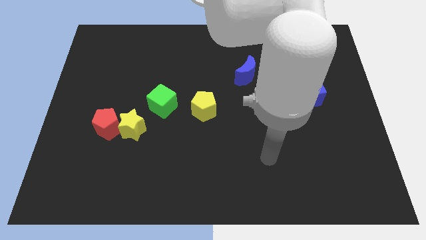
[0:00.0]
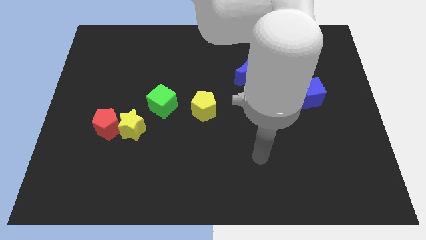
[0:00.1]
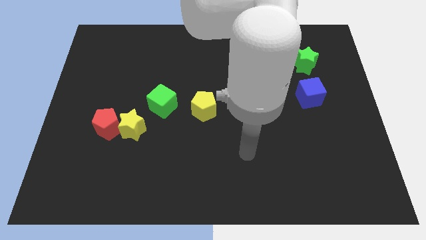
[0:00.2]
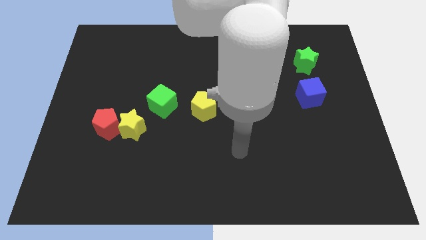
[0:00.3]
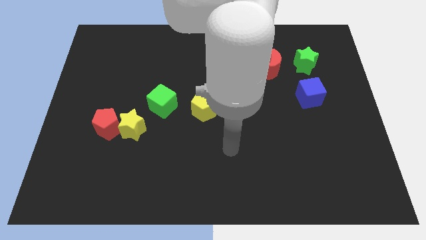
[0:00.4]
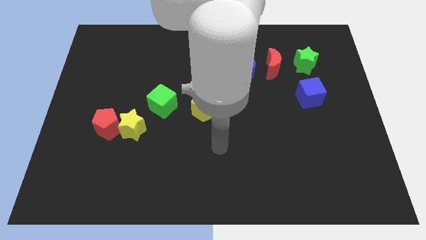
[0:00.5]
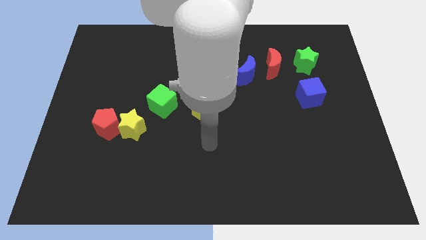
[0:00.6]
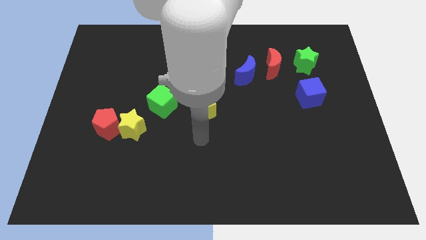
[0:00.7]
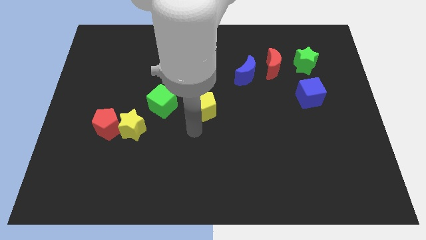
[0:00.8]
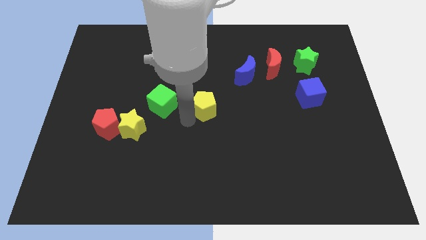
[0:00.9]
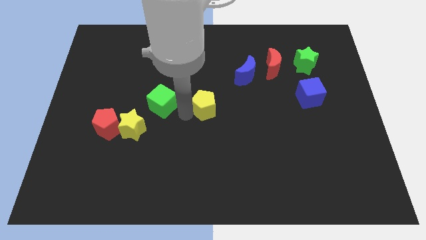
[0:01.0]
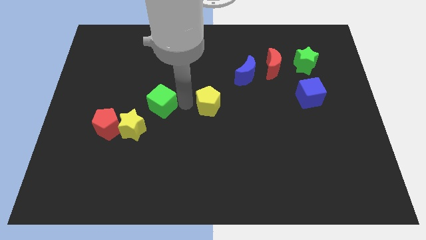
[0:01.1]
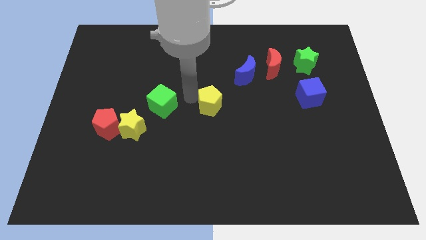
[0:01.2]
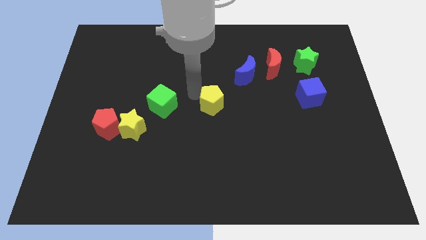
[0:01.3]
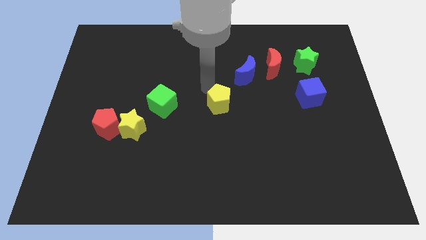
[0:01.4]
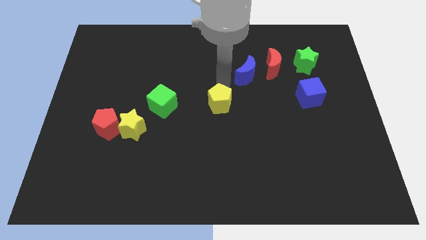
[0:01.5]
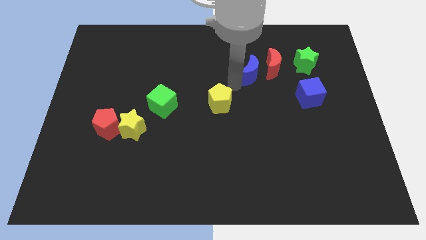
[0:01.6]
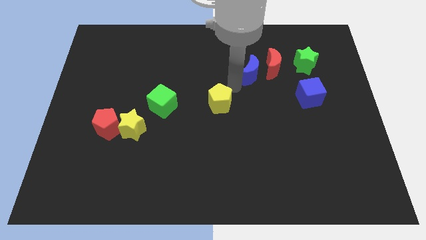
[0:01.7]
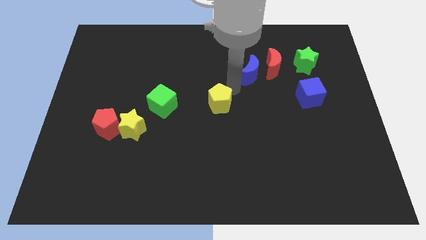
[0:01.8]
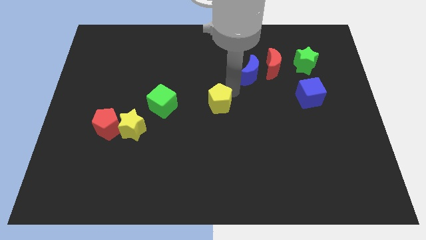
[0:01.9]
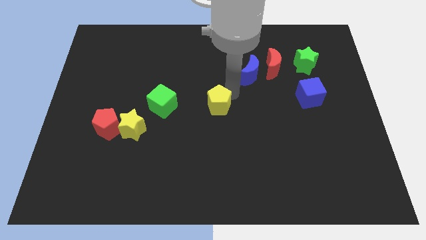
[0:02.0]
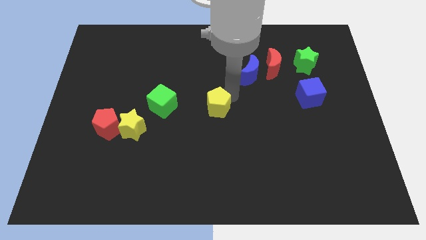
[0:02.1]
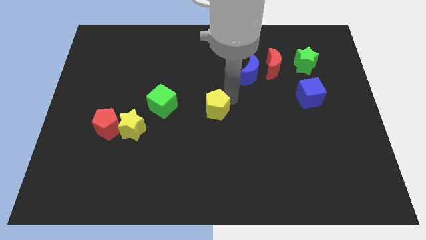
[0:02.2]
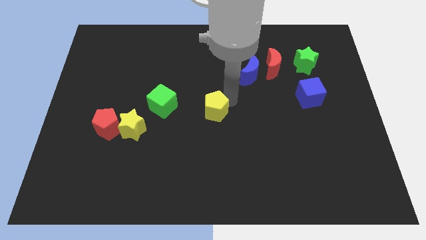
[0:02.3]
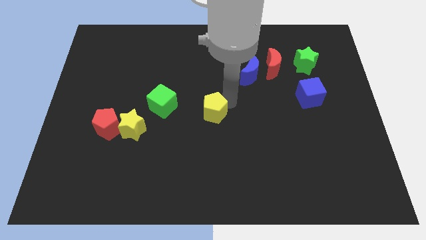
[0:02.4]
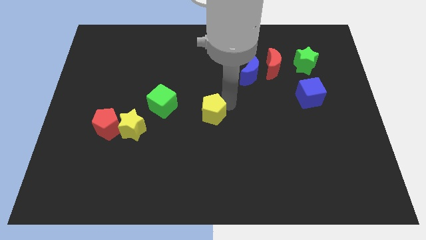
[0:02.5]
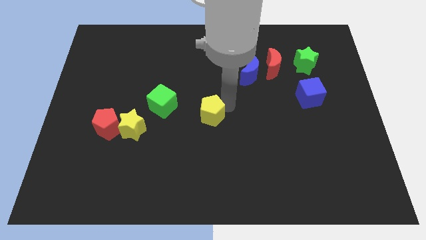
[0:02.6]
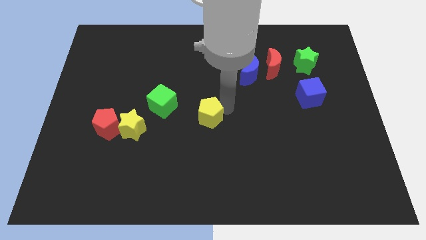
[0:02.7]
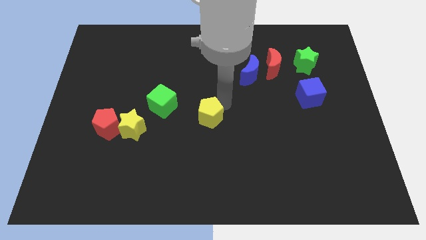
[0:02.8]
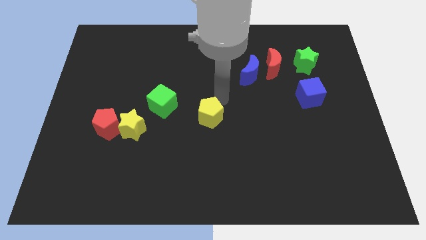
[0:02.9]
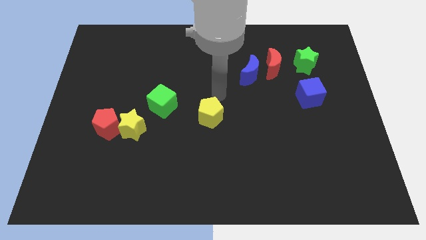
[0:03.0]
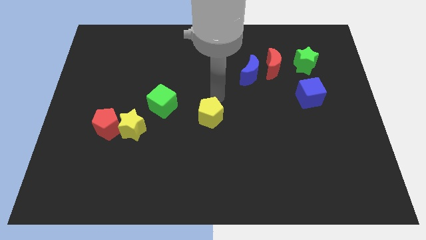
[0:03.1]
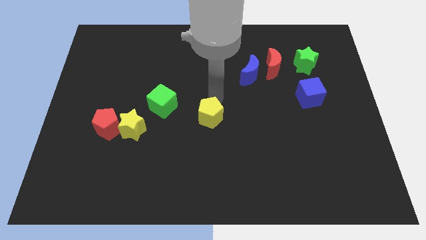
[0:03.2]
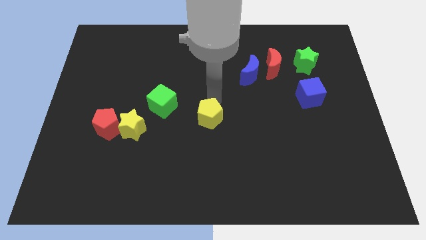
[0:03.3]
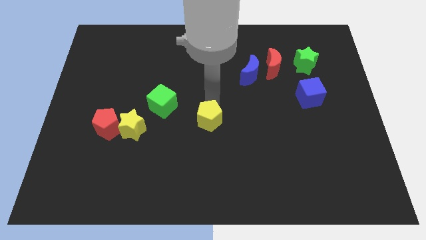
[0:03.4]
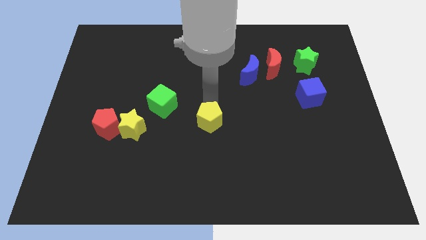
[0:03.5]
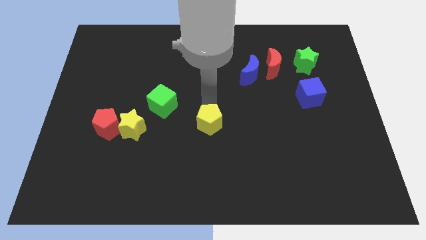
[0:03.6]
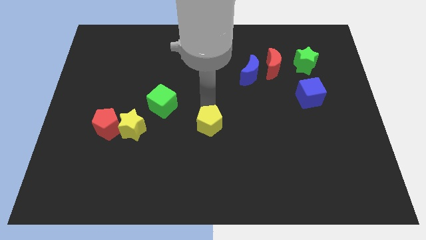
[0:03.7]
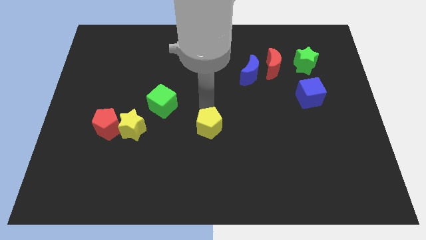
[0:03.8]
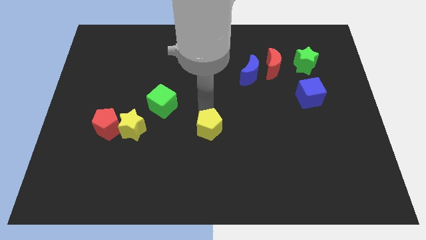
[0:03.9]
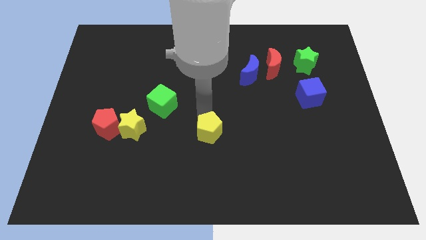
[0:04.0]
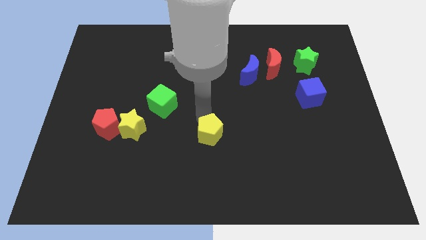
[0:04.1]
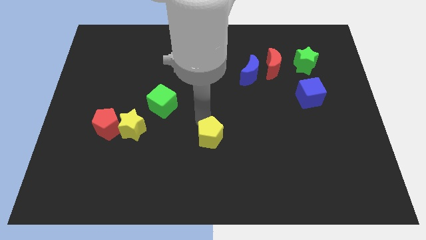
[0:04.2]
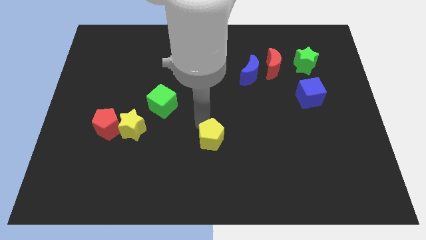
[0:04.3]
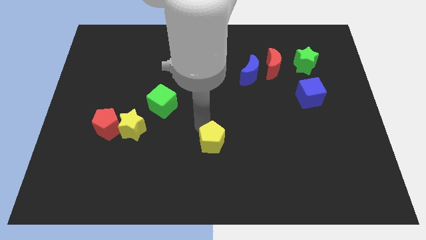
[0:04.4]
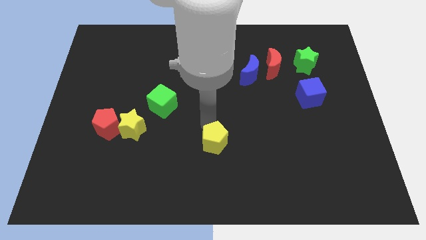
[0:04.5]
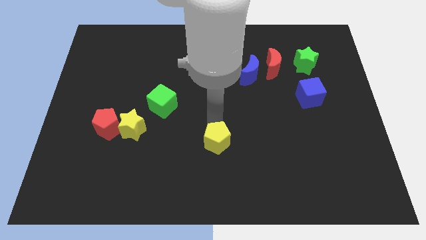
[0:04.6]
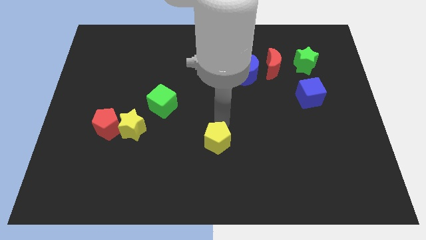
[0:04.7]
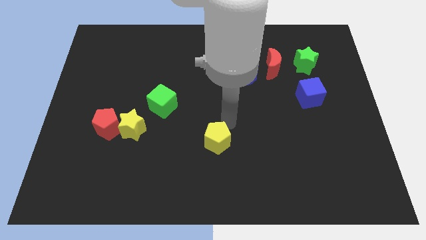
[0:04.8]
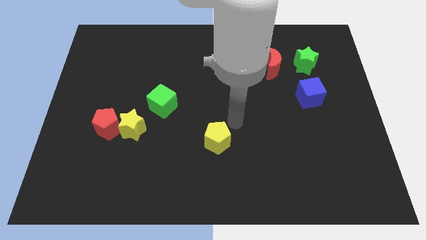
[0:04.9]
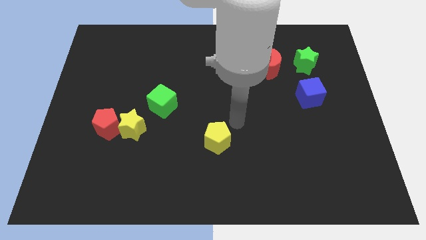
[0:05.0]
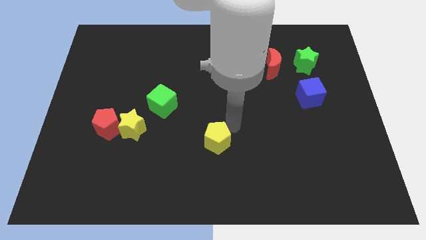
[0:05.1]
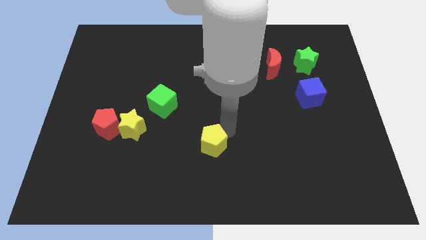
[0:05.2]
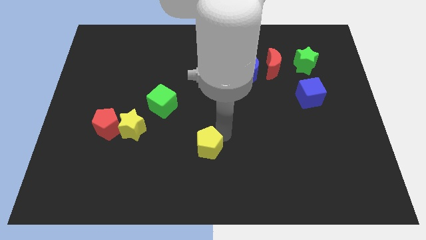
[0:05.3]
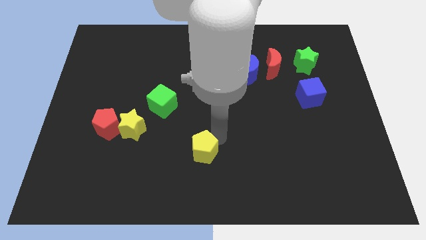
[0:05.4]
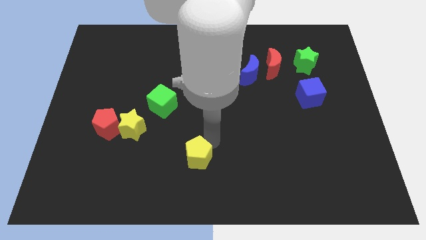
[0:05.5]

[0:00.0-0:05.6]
push the yellow pentagon to the bottom
